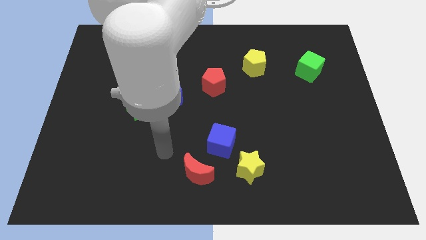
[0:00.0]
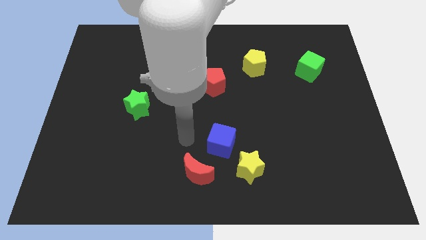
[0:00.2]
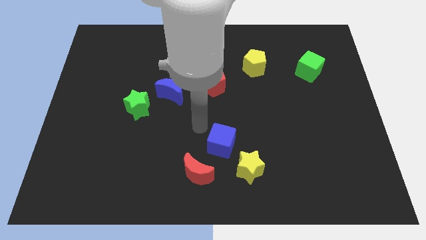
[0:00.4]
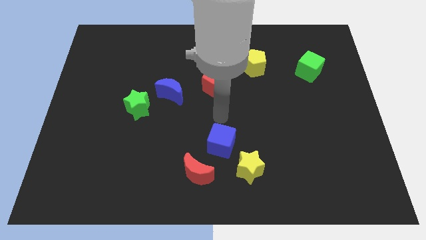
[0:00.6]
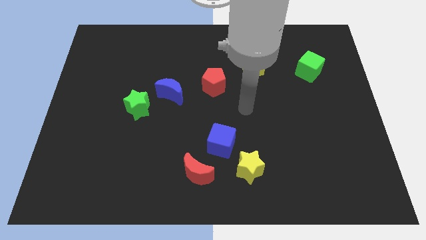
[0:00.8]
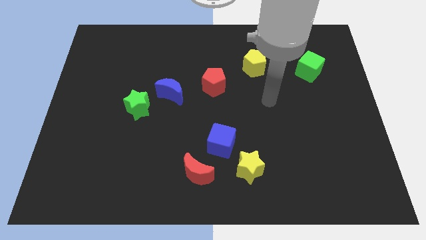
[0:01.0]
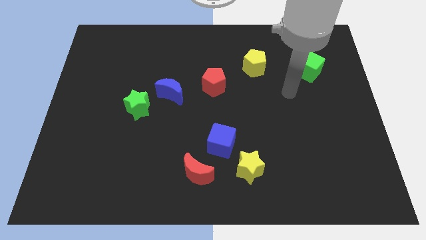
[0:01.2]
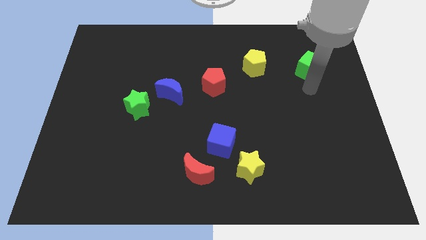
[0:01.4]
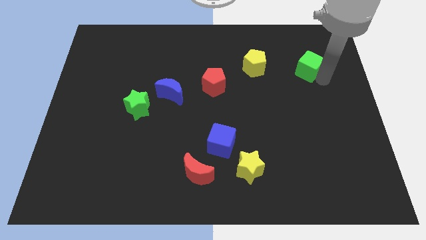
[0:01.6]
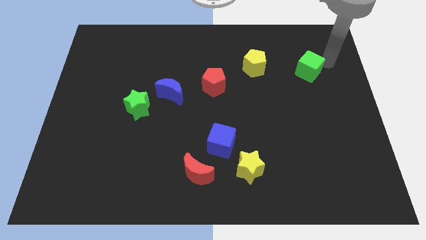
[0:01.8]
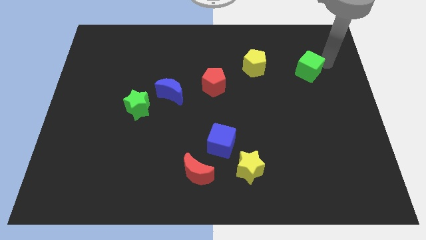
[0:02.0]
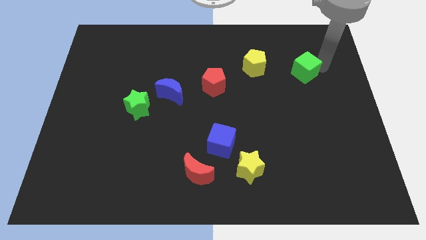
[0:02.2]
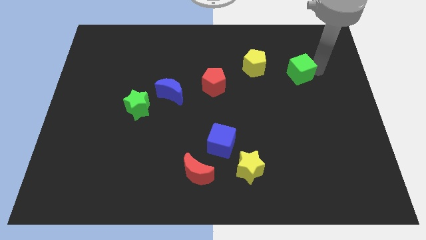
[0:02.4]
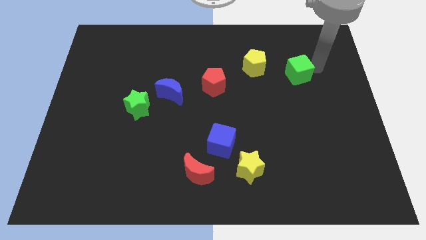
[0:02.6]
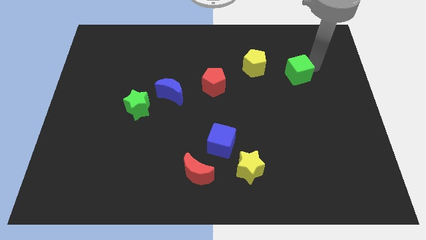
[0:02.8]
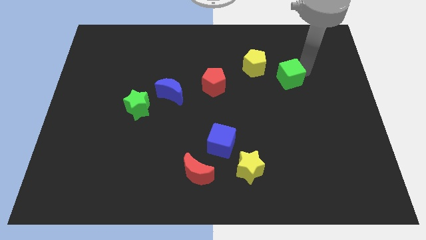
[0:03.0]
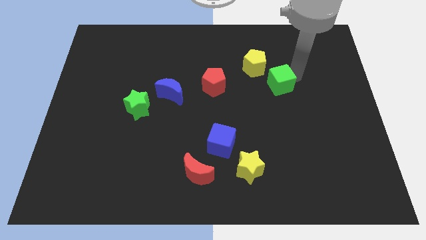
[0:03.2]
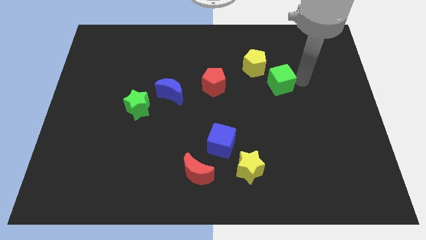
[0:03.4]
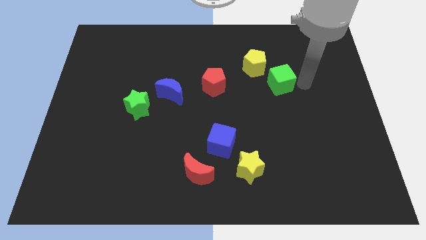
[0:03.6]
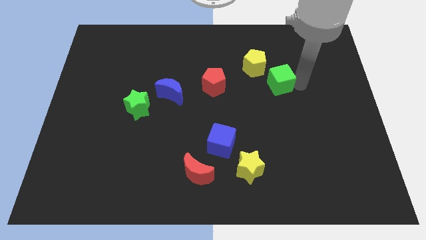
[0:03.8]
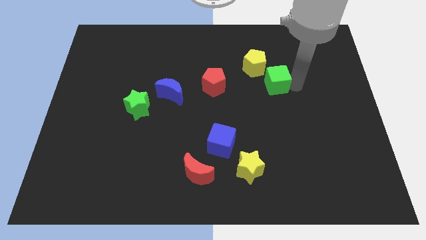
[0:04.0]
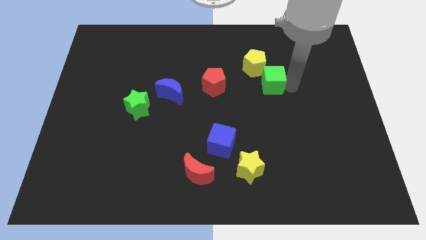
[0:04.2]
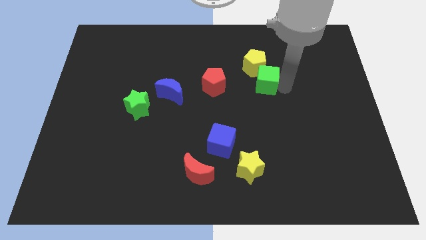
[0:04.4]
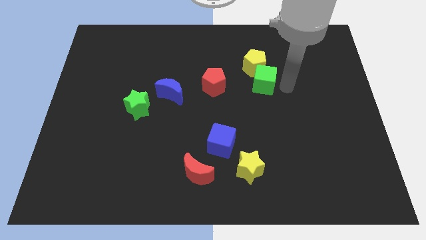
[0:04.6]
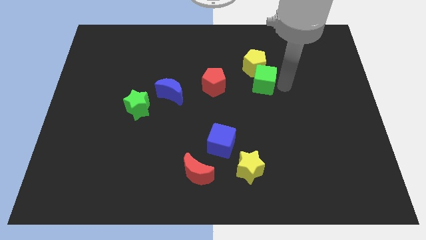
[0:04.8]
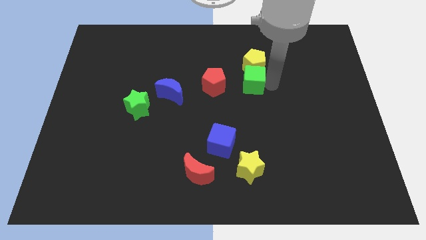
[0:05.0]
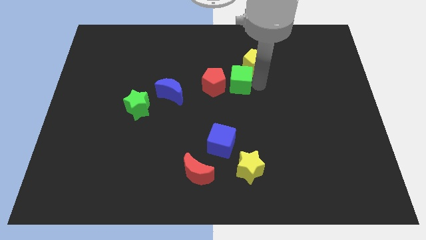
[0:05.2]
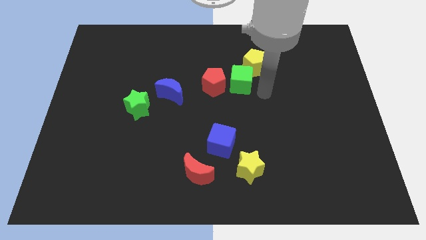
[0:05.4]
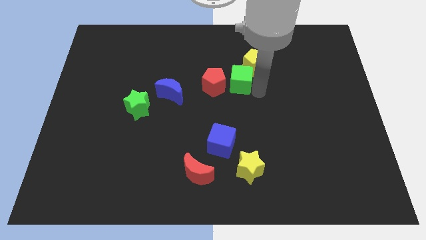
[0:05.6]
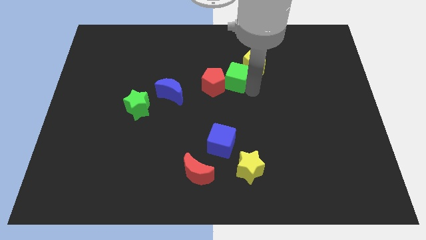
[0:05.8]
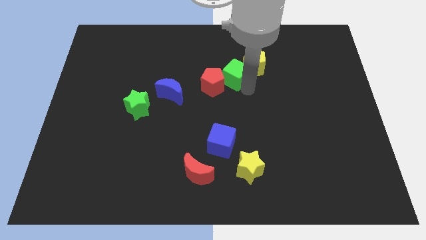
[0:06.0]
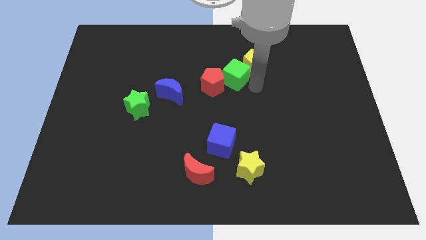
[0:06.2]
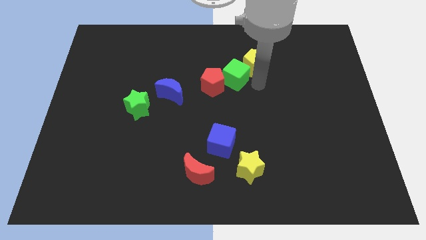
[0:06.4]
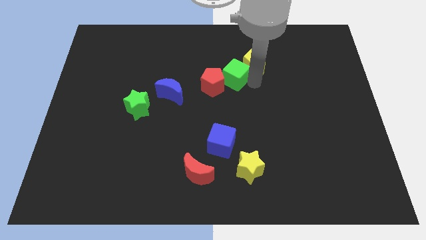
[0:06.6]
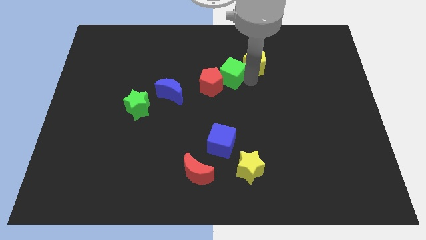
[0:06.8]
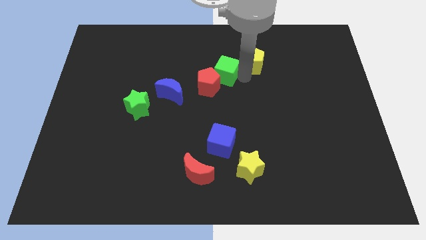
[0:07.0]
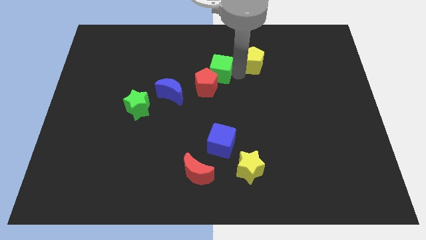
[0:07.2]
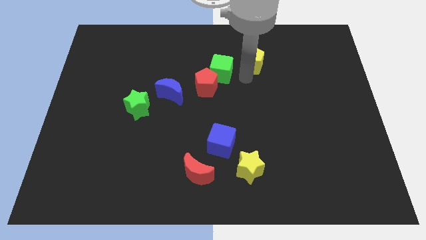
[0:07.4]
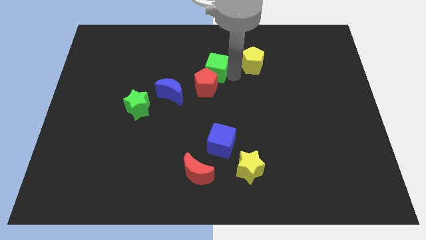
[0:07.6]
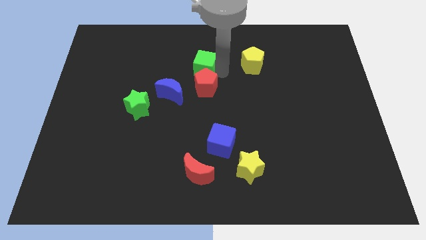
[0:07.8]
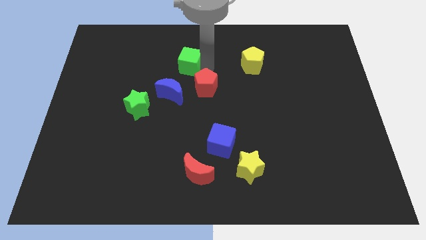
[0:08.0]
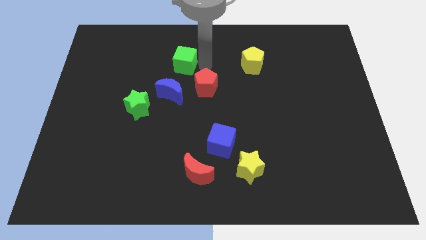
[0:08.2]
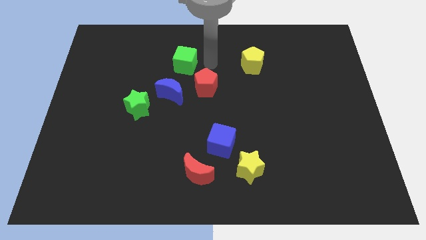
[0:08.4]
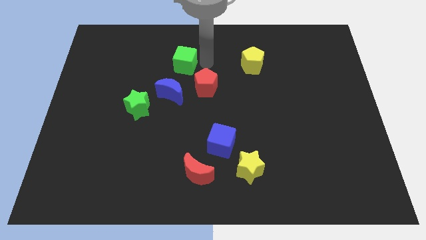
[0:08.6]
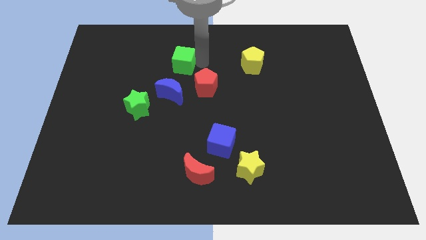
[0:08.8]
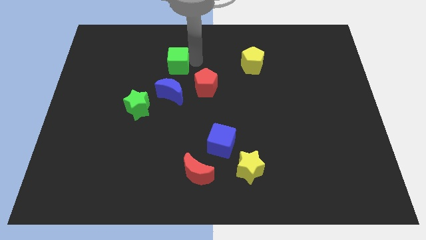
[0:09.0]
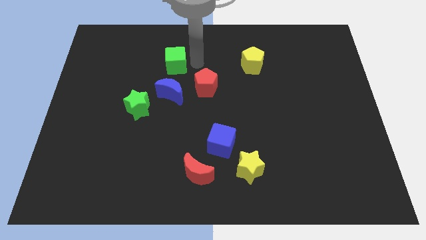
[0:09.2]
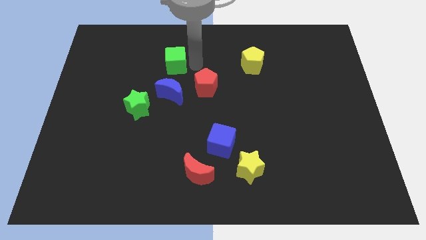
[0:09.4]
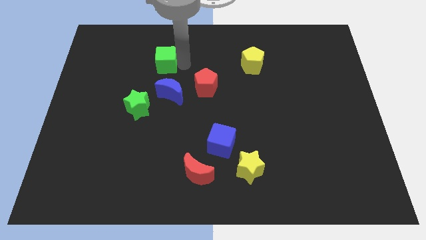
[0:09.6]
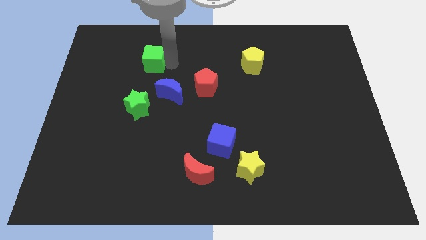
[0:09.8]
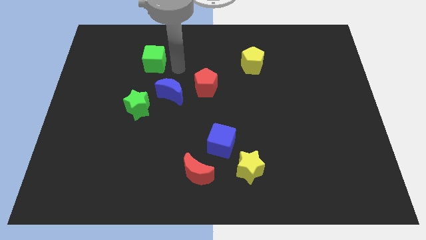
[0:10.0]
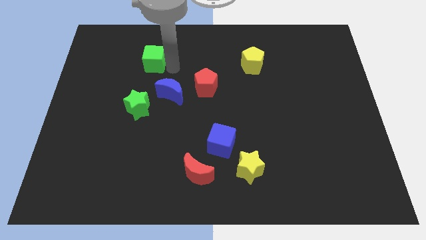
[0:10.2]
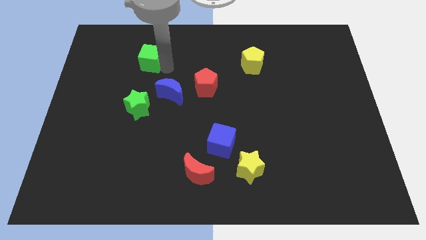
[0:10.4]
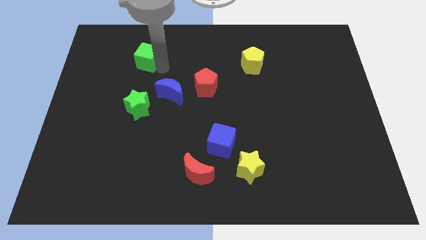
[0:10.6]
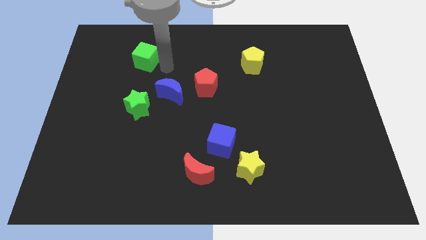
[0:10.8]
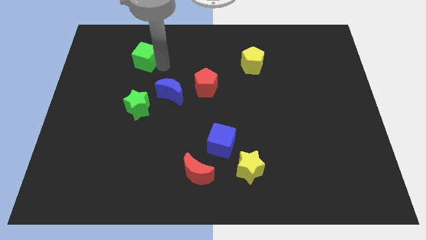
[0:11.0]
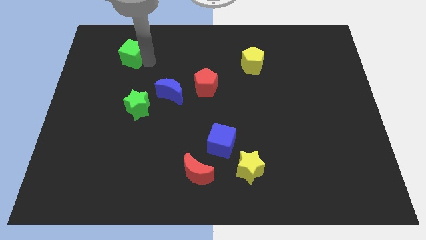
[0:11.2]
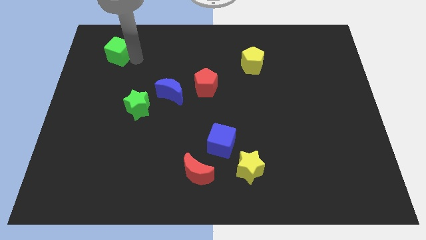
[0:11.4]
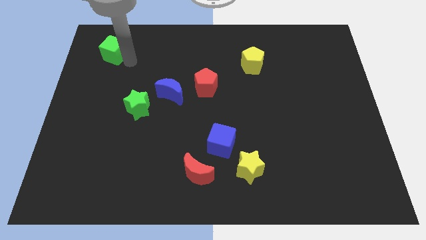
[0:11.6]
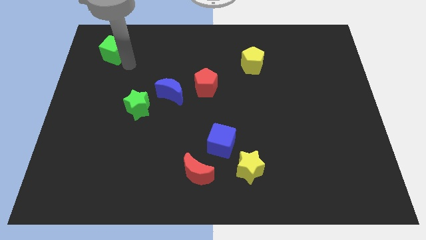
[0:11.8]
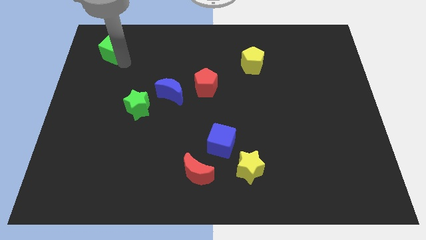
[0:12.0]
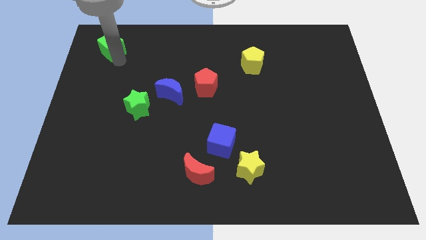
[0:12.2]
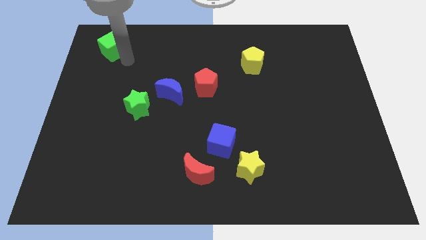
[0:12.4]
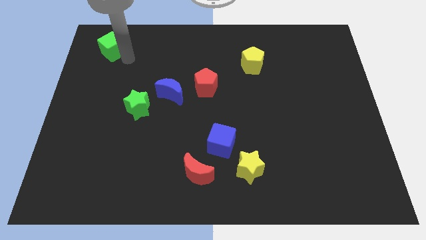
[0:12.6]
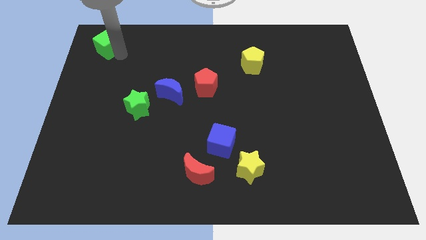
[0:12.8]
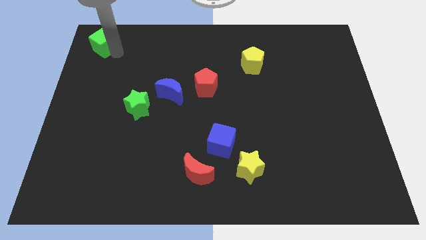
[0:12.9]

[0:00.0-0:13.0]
put the green cube to the top left
